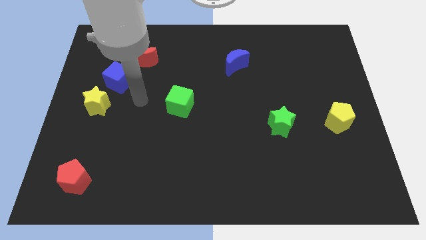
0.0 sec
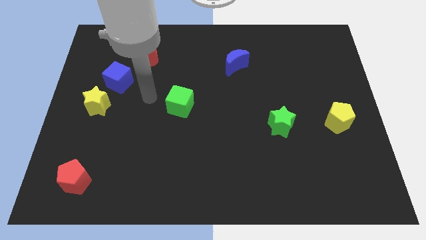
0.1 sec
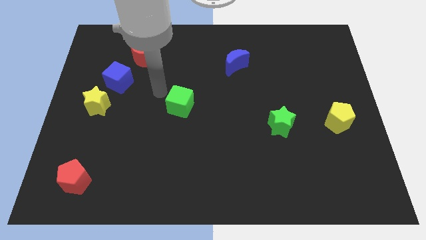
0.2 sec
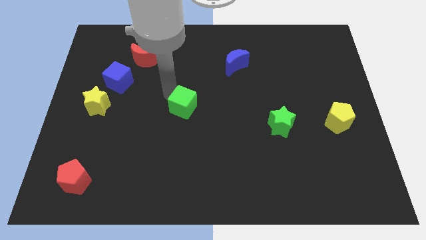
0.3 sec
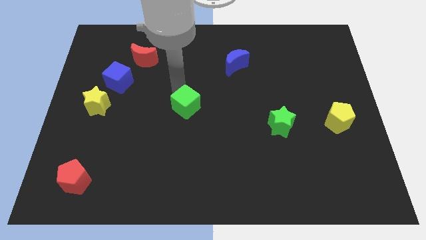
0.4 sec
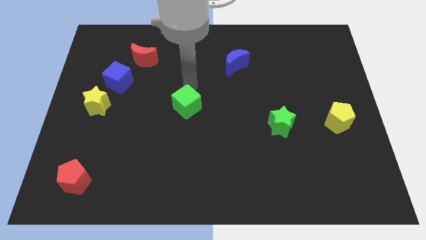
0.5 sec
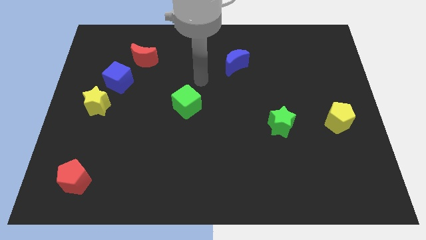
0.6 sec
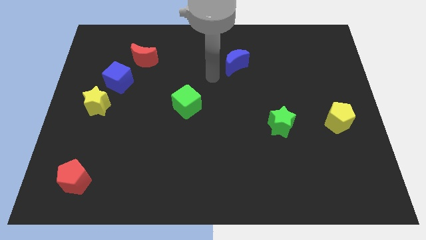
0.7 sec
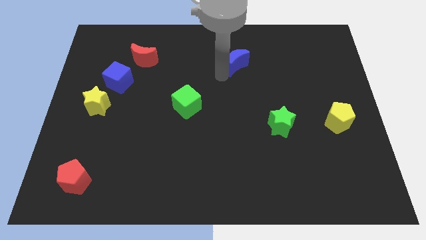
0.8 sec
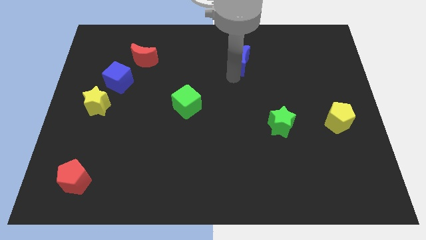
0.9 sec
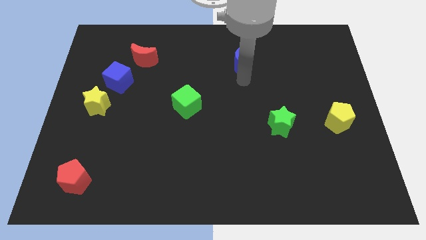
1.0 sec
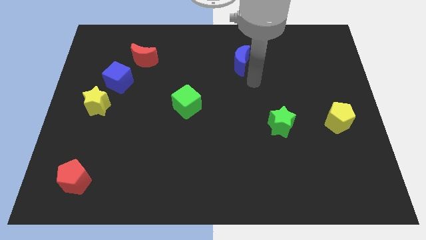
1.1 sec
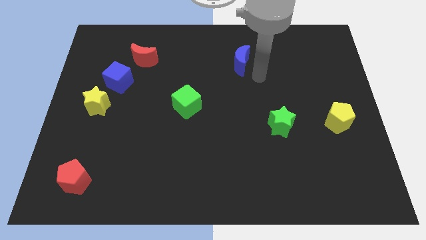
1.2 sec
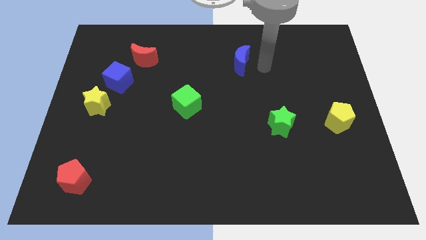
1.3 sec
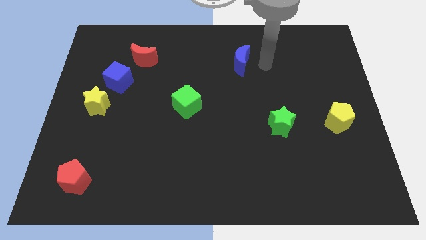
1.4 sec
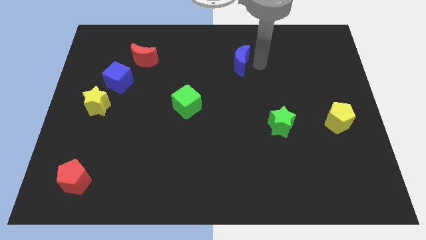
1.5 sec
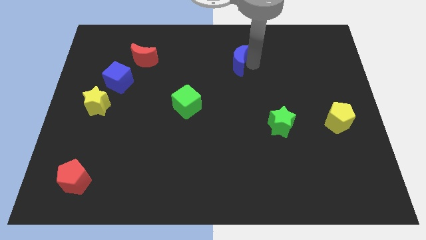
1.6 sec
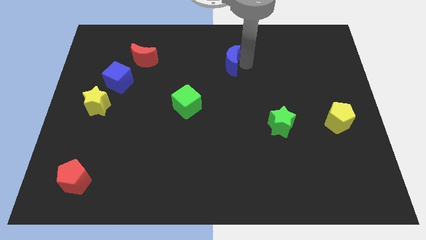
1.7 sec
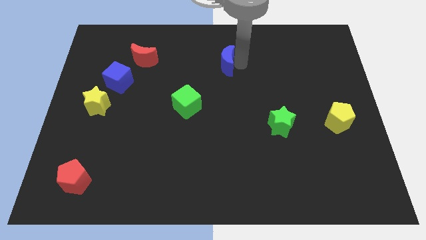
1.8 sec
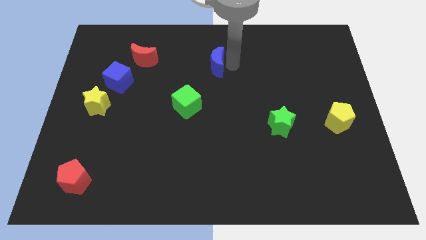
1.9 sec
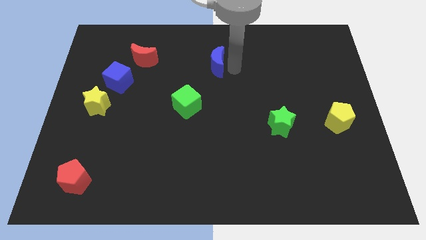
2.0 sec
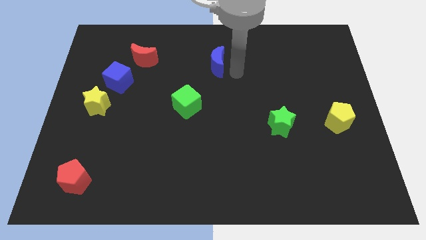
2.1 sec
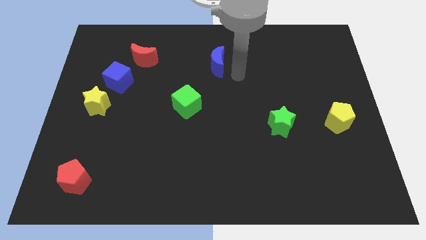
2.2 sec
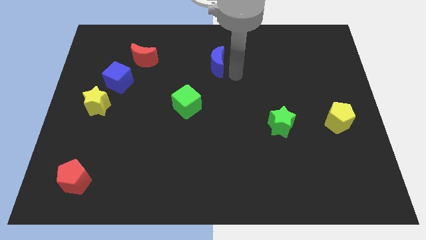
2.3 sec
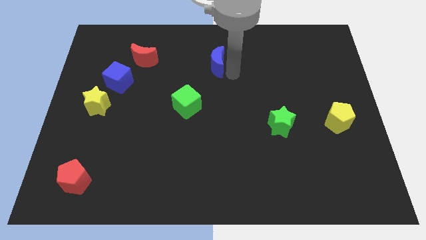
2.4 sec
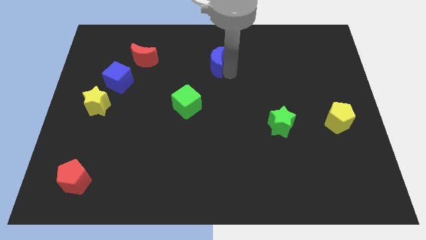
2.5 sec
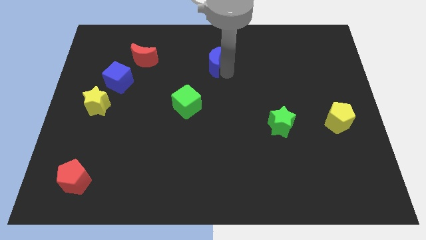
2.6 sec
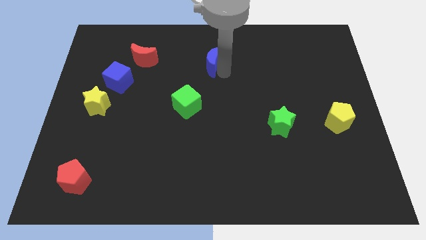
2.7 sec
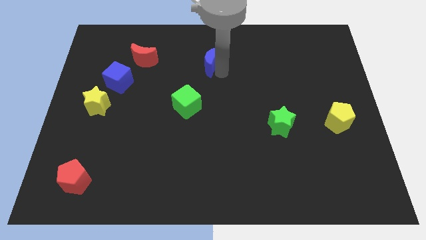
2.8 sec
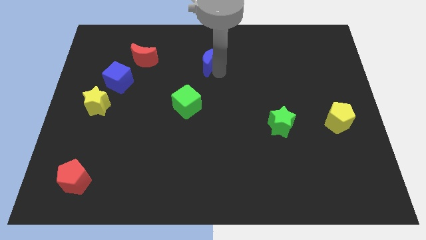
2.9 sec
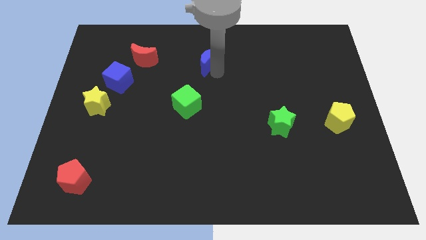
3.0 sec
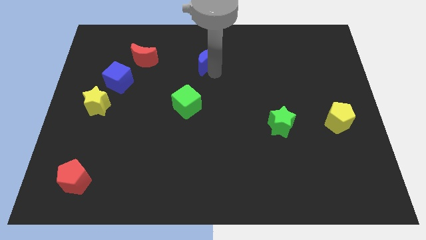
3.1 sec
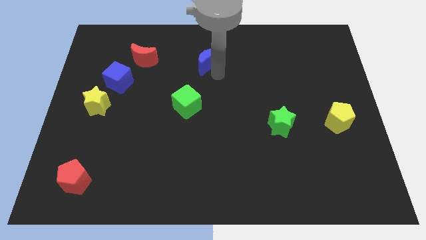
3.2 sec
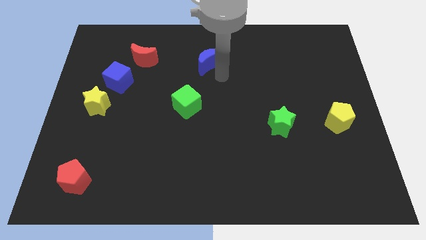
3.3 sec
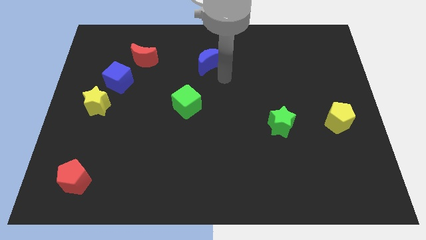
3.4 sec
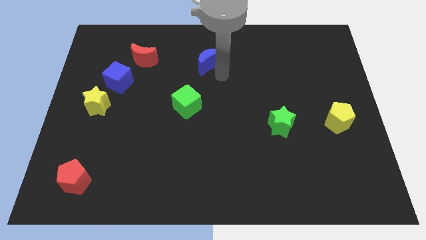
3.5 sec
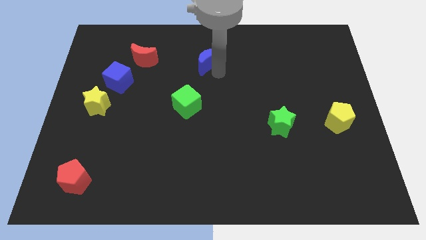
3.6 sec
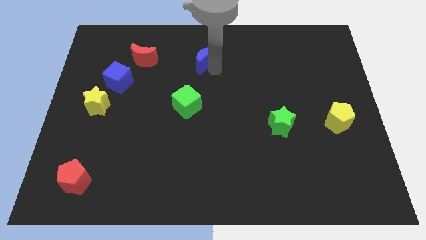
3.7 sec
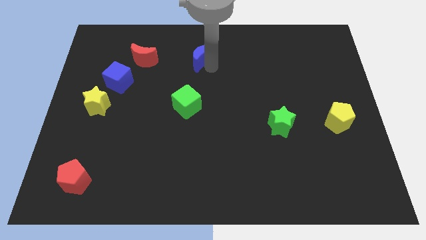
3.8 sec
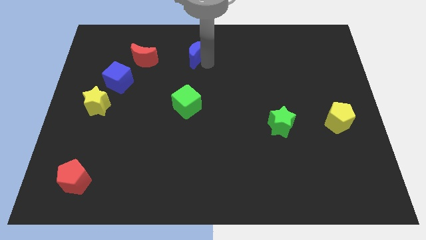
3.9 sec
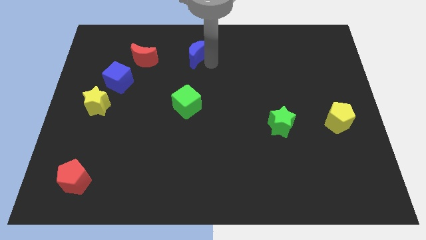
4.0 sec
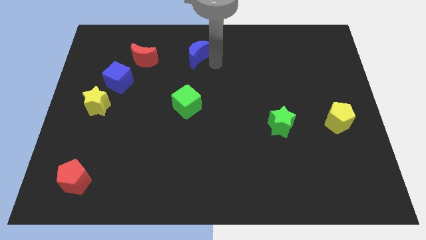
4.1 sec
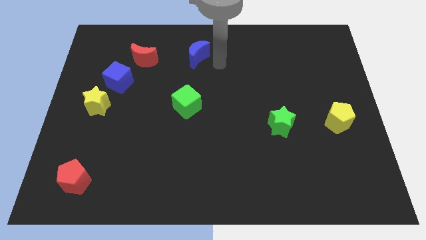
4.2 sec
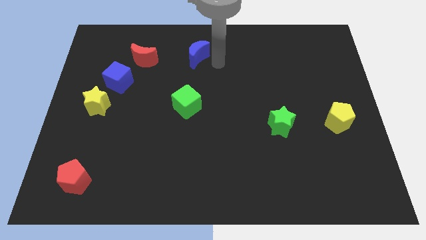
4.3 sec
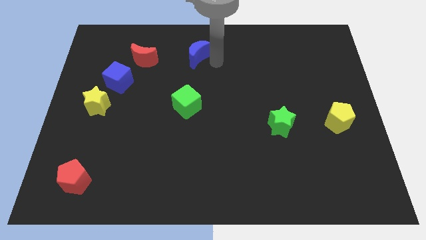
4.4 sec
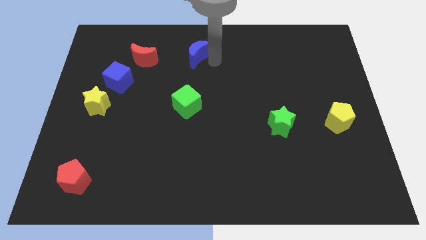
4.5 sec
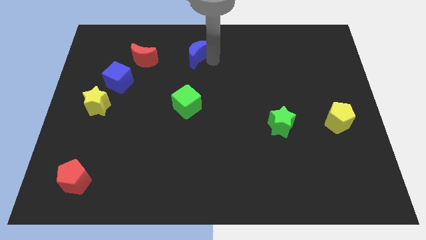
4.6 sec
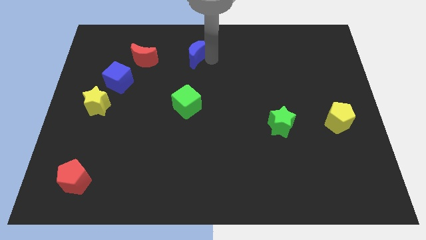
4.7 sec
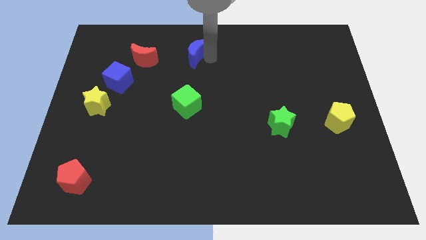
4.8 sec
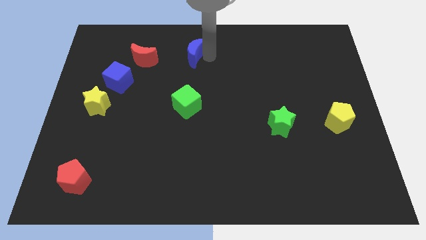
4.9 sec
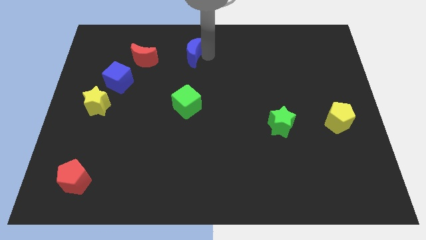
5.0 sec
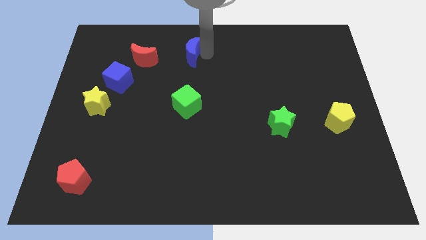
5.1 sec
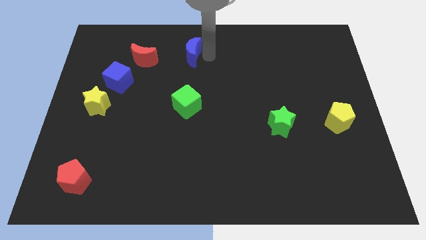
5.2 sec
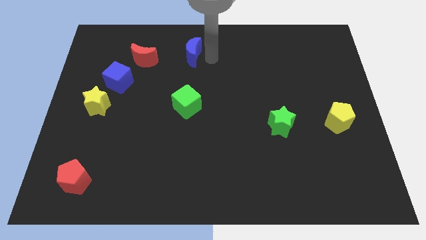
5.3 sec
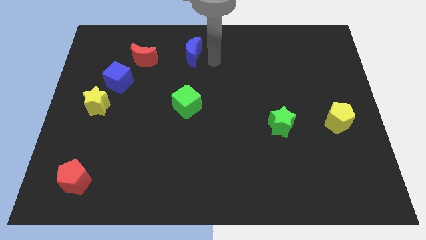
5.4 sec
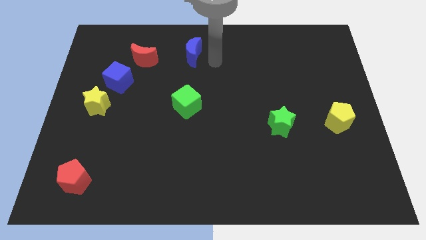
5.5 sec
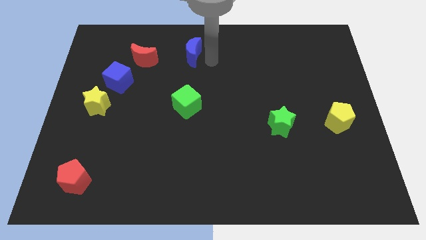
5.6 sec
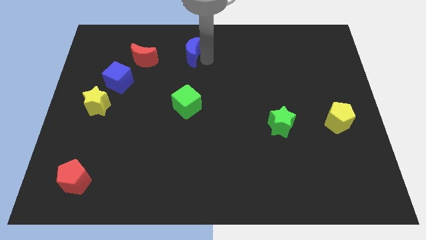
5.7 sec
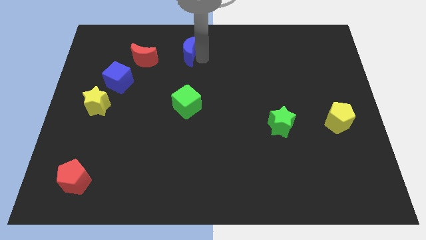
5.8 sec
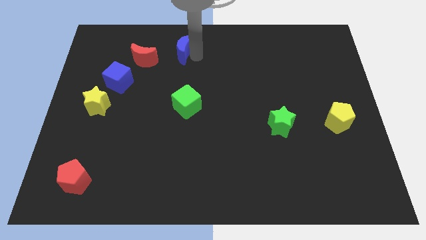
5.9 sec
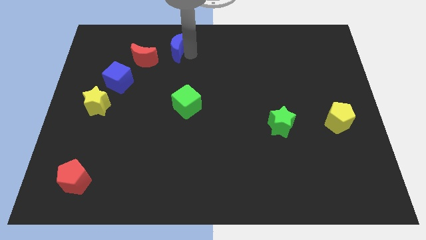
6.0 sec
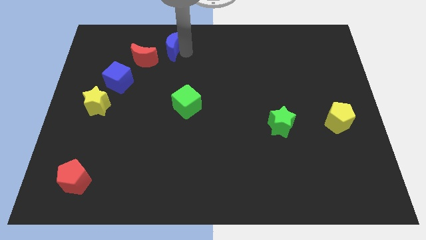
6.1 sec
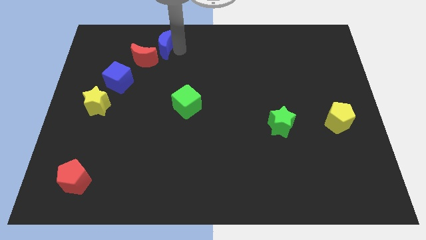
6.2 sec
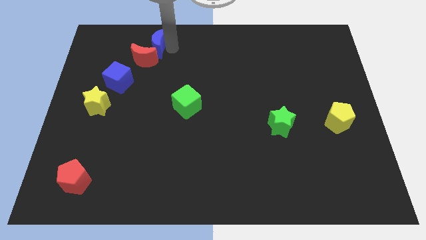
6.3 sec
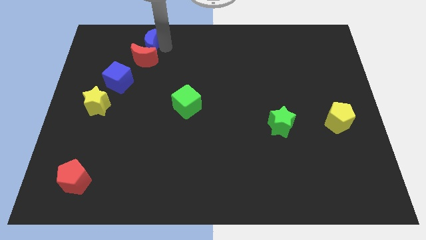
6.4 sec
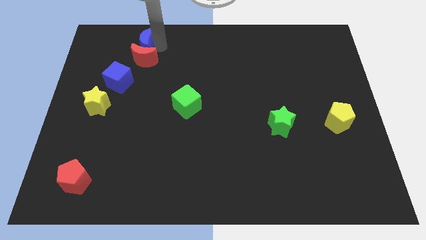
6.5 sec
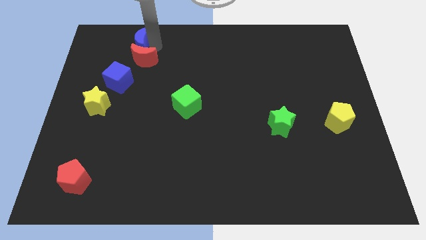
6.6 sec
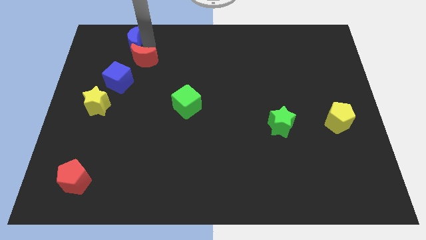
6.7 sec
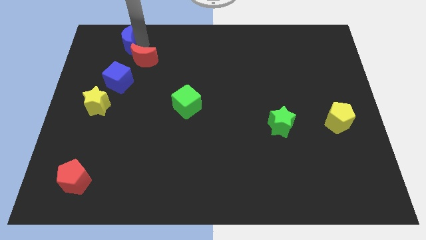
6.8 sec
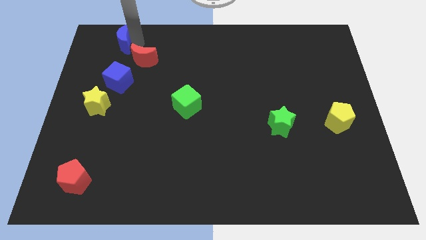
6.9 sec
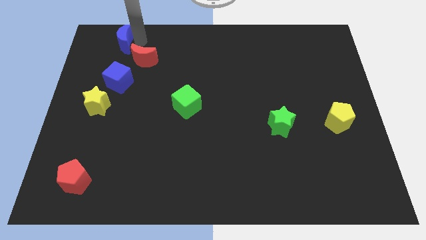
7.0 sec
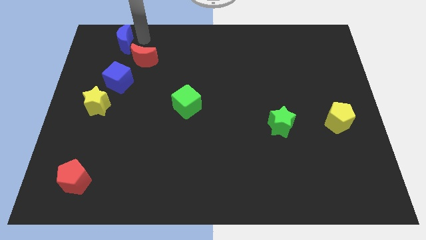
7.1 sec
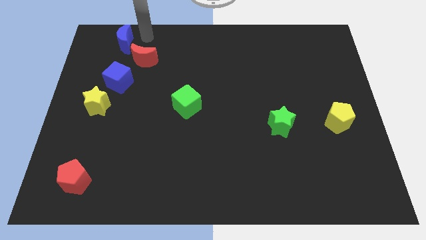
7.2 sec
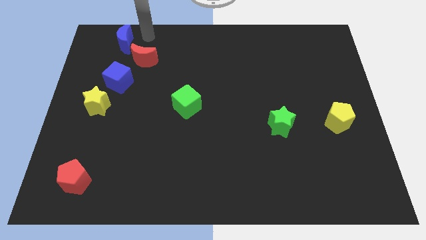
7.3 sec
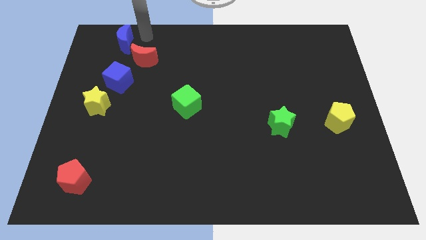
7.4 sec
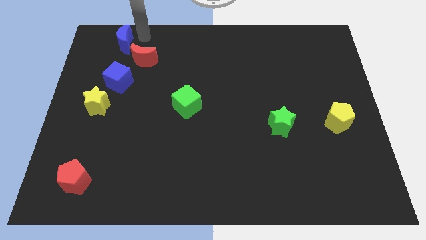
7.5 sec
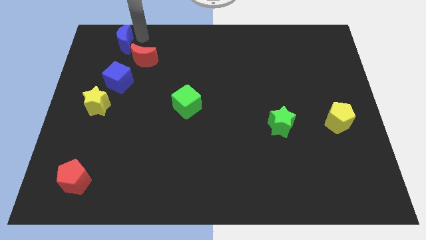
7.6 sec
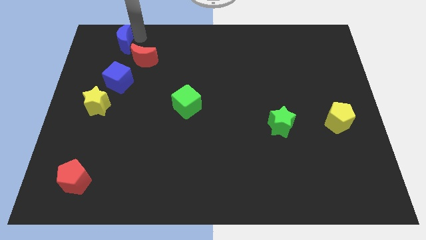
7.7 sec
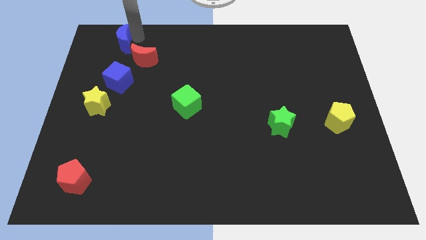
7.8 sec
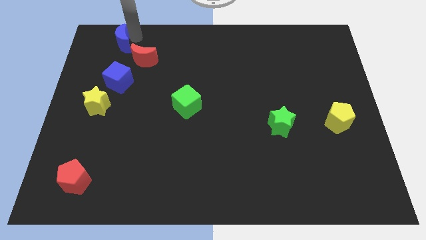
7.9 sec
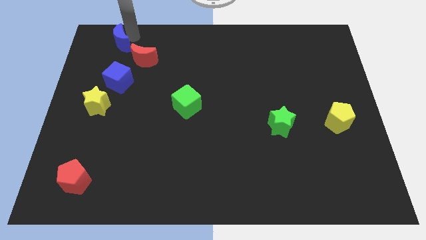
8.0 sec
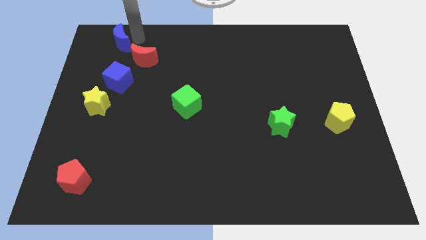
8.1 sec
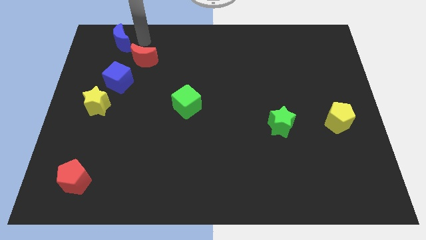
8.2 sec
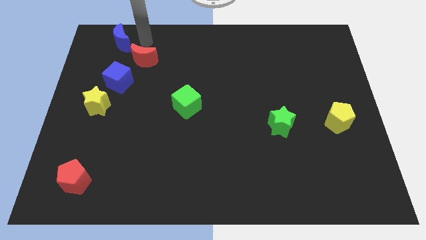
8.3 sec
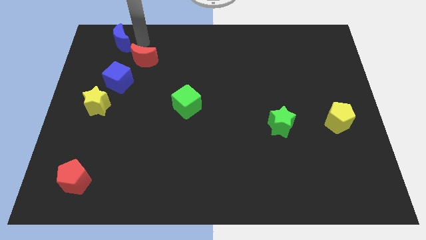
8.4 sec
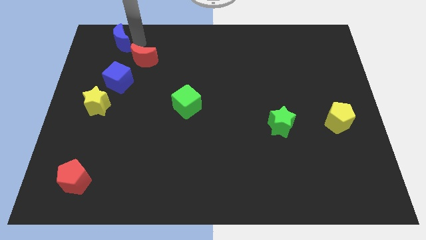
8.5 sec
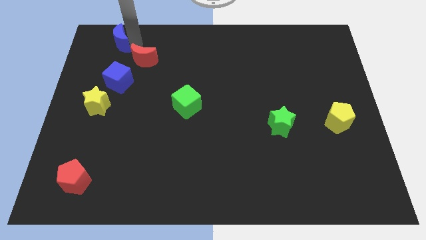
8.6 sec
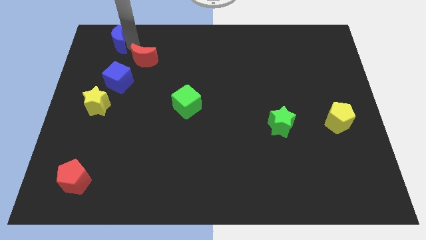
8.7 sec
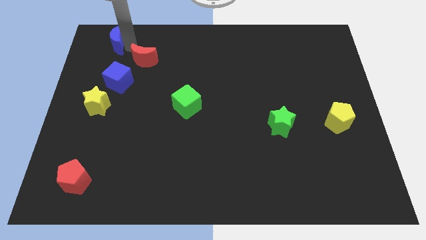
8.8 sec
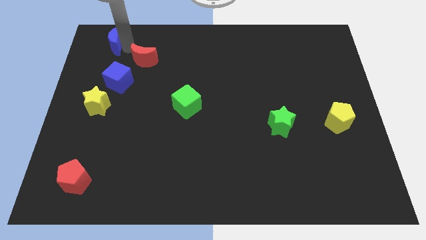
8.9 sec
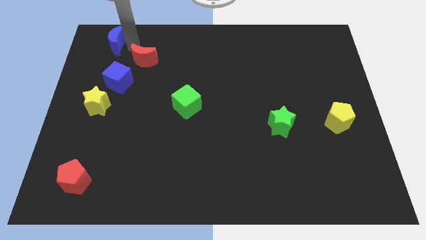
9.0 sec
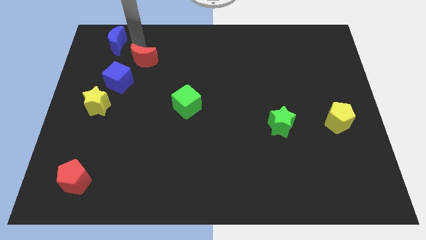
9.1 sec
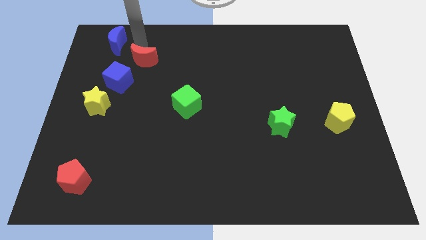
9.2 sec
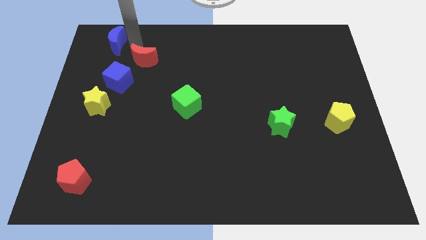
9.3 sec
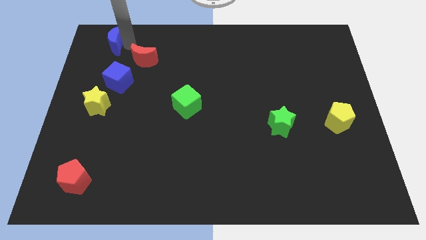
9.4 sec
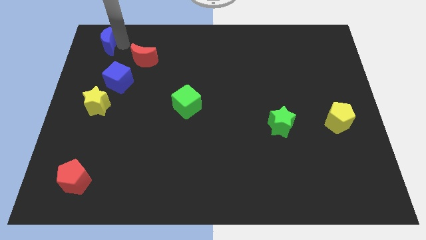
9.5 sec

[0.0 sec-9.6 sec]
slide the blue moon to the upper left corner
